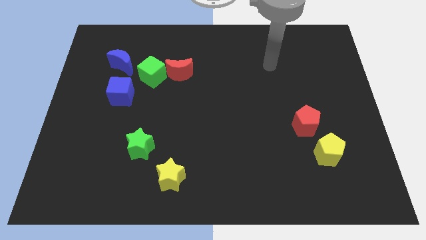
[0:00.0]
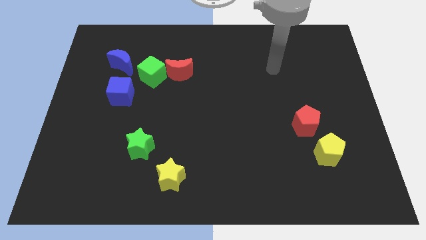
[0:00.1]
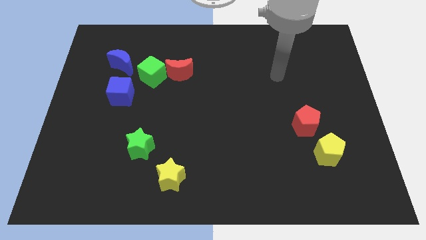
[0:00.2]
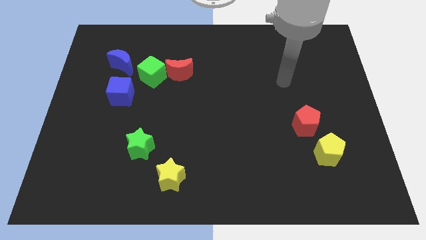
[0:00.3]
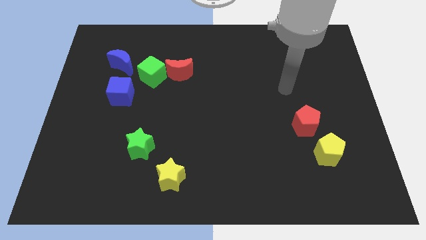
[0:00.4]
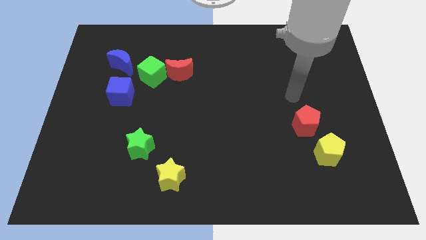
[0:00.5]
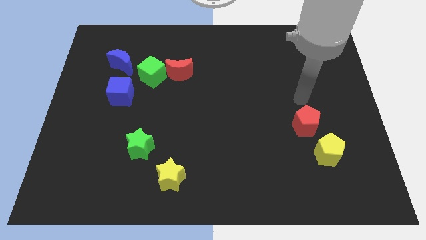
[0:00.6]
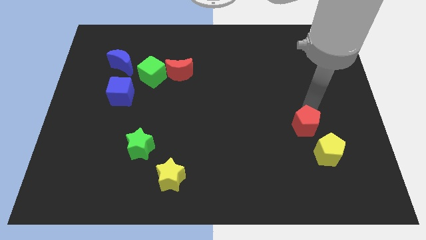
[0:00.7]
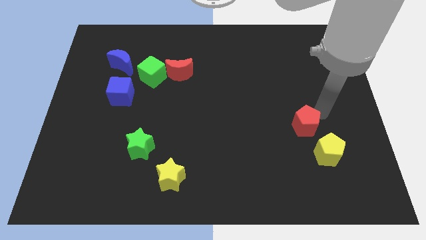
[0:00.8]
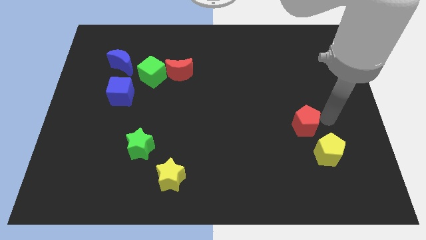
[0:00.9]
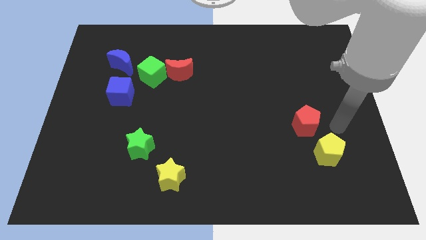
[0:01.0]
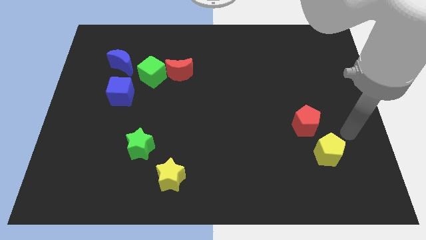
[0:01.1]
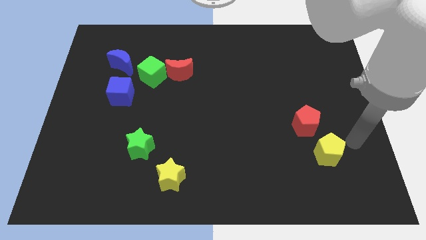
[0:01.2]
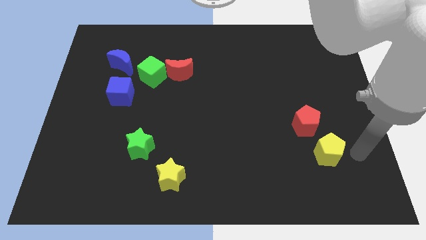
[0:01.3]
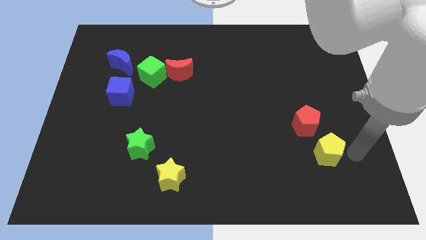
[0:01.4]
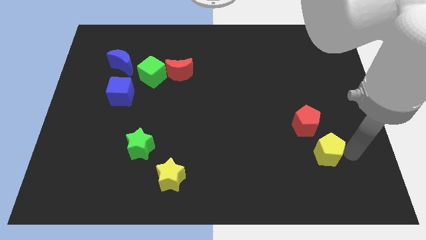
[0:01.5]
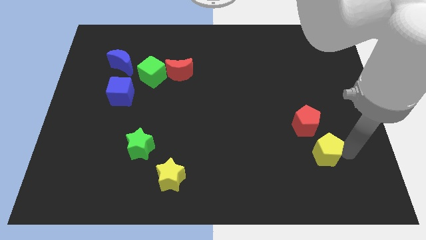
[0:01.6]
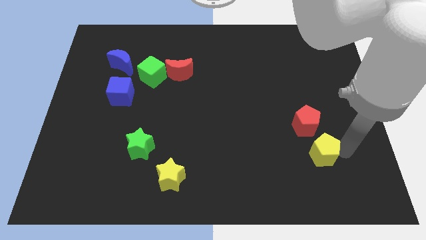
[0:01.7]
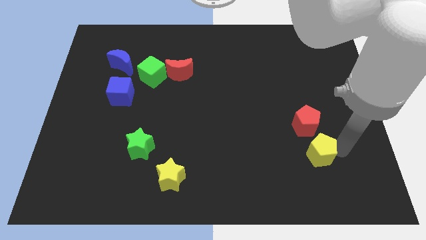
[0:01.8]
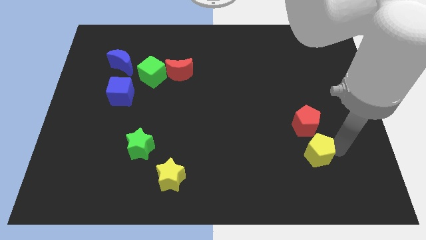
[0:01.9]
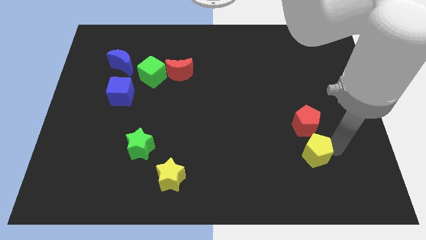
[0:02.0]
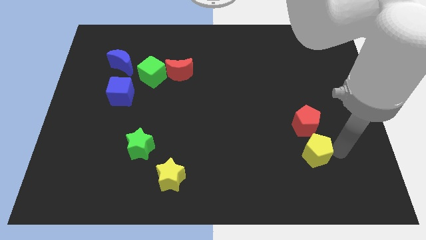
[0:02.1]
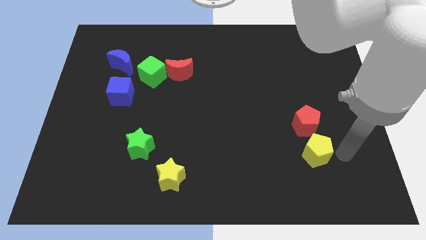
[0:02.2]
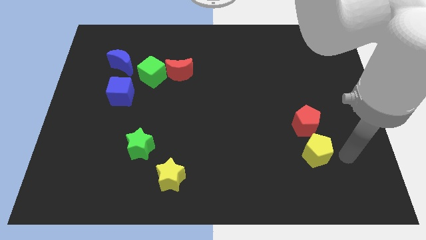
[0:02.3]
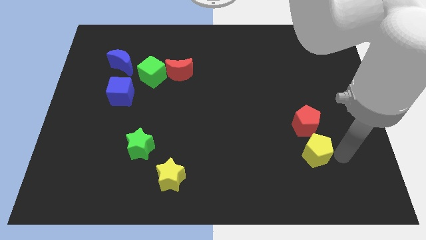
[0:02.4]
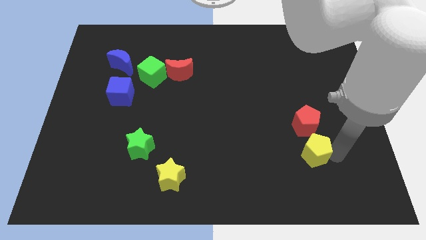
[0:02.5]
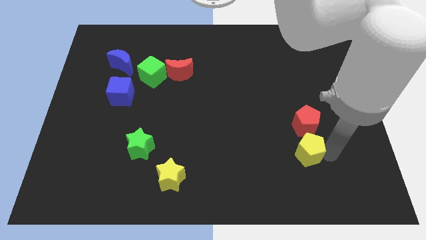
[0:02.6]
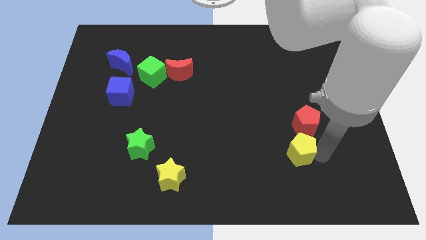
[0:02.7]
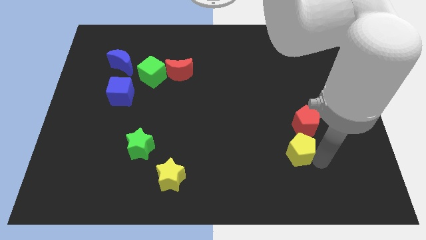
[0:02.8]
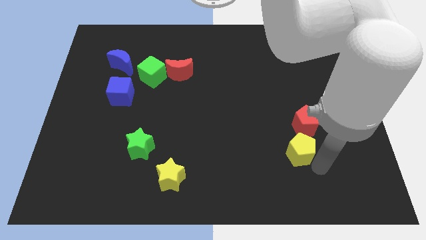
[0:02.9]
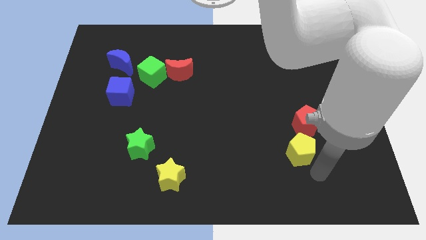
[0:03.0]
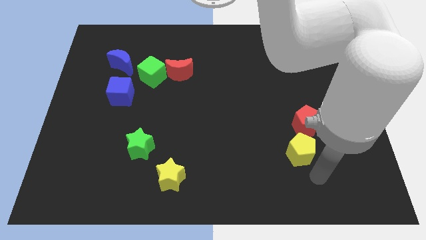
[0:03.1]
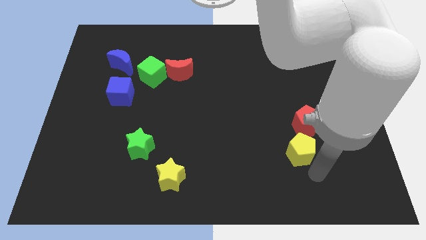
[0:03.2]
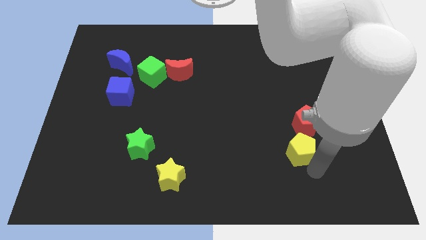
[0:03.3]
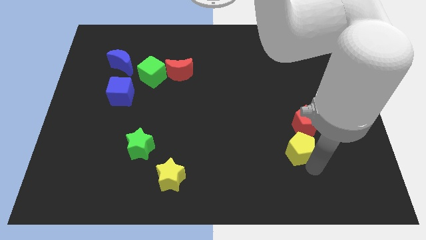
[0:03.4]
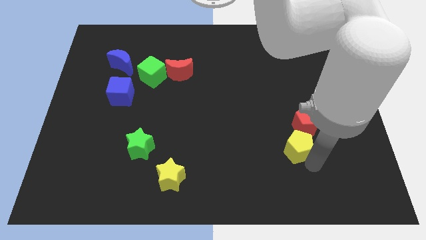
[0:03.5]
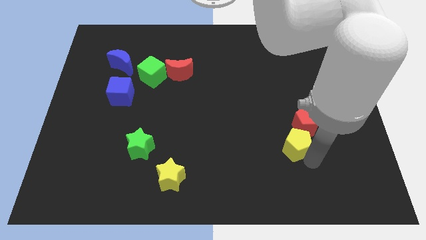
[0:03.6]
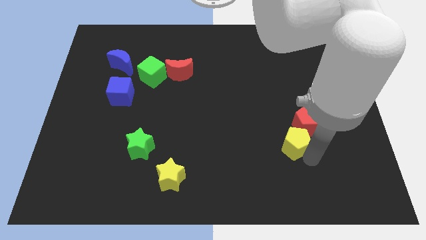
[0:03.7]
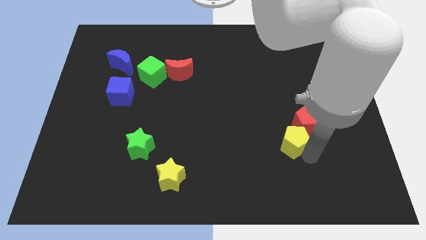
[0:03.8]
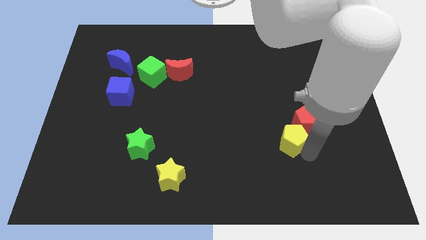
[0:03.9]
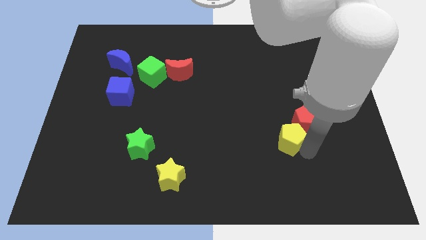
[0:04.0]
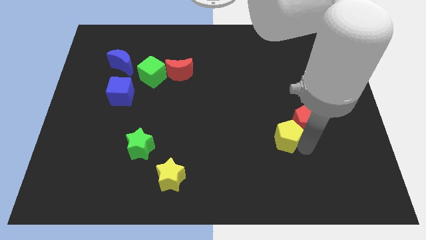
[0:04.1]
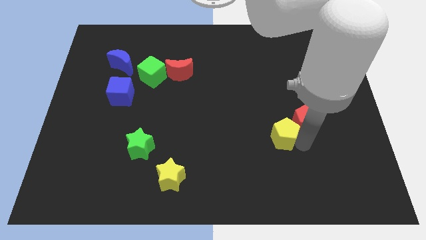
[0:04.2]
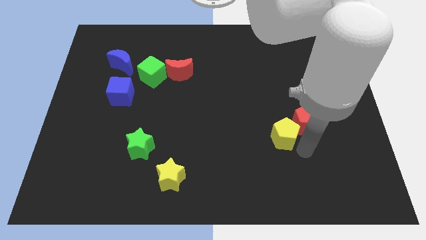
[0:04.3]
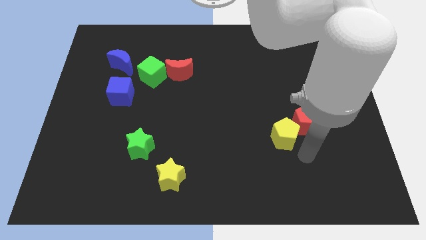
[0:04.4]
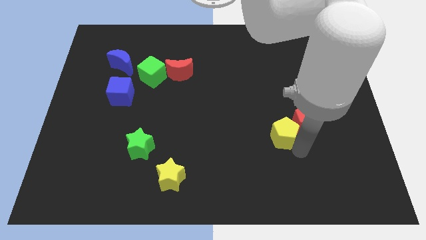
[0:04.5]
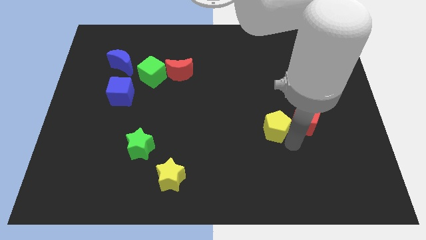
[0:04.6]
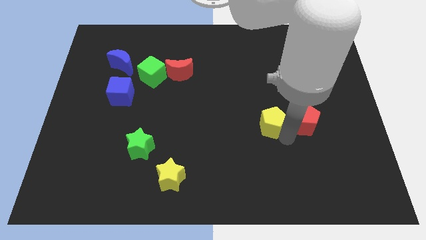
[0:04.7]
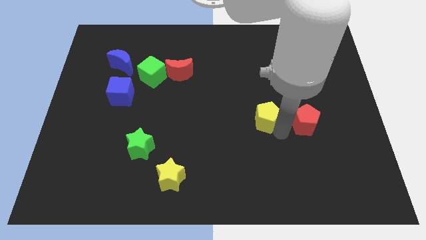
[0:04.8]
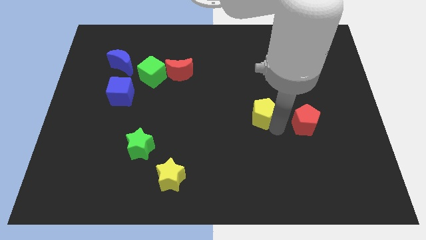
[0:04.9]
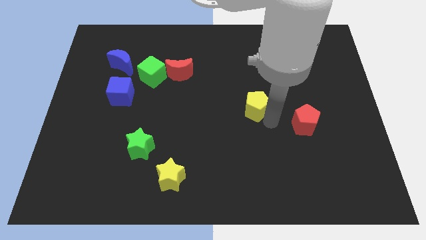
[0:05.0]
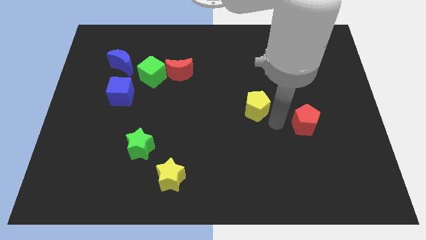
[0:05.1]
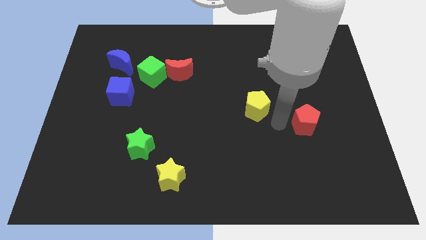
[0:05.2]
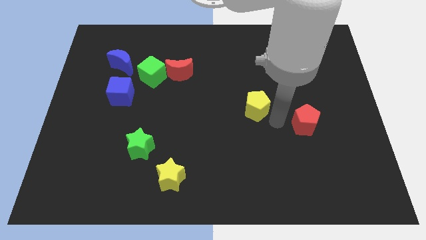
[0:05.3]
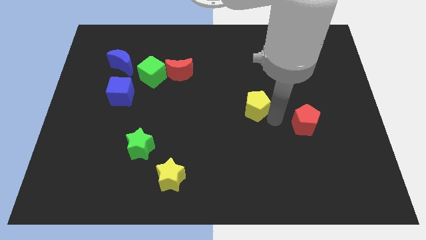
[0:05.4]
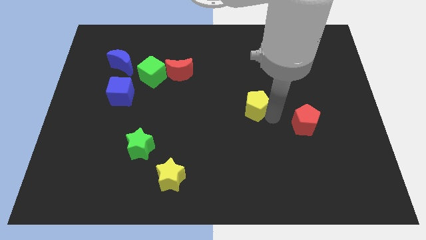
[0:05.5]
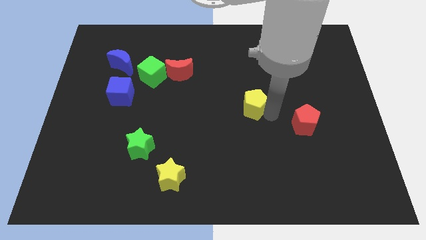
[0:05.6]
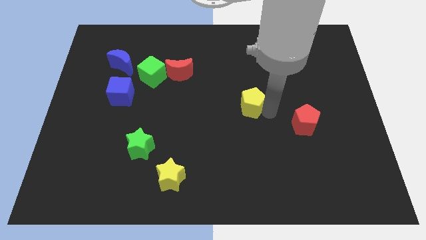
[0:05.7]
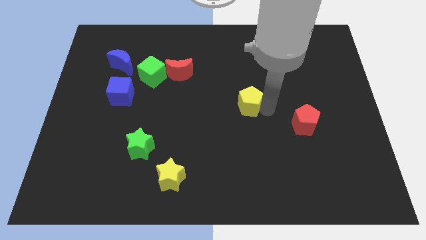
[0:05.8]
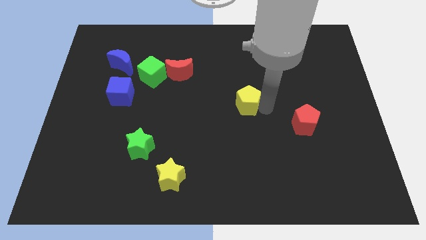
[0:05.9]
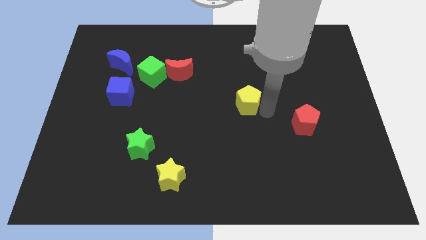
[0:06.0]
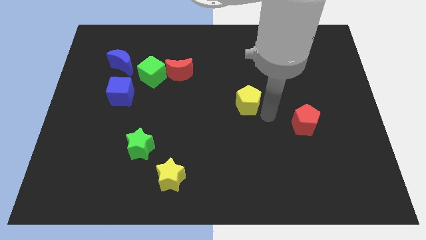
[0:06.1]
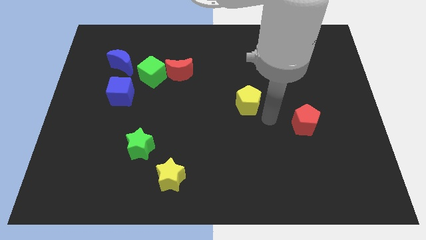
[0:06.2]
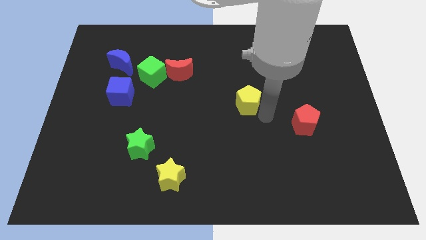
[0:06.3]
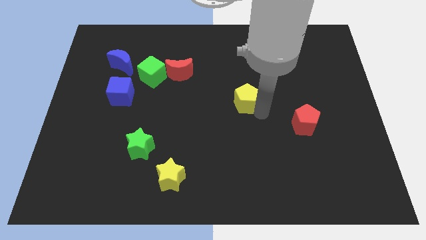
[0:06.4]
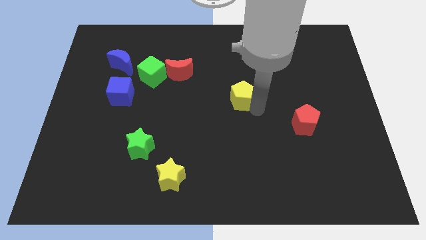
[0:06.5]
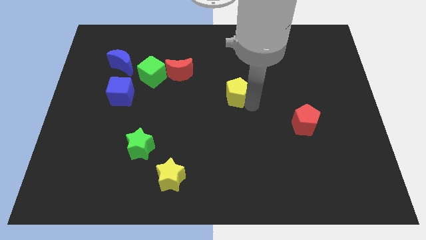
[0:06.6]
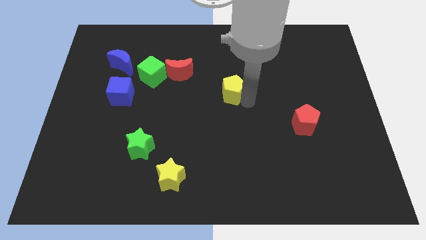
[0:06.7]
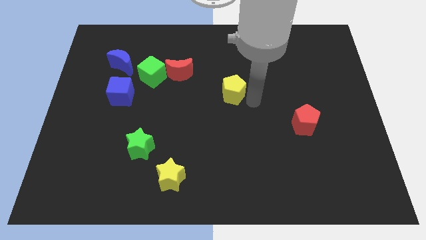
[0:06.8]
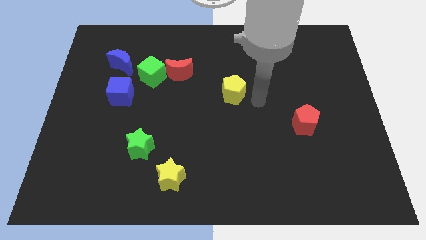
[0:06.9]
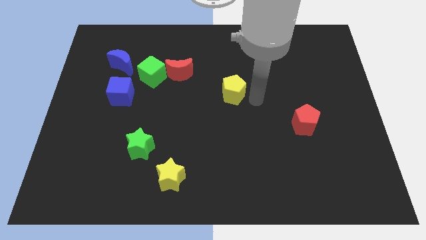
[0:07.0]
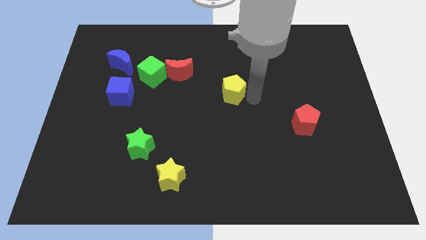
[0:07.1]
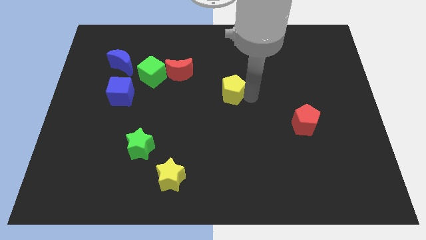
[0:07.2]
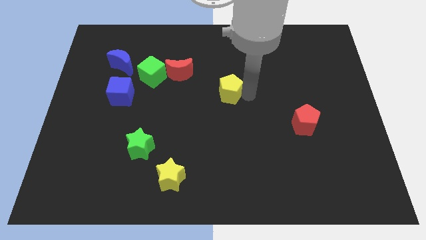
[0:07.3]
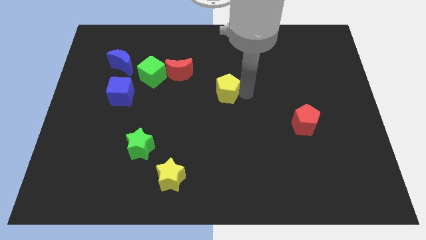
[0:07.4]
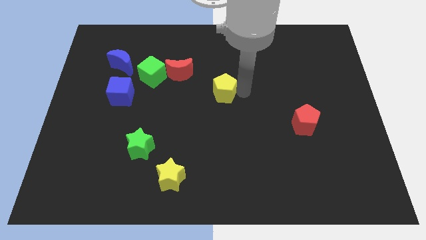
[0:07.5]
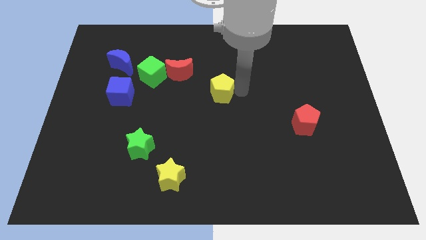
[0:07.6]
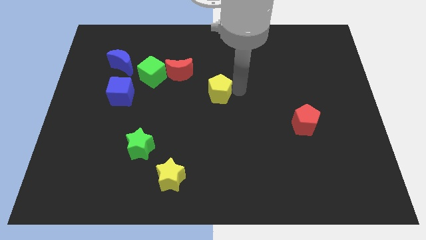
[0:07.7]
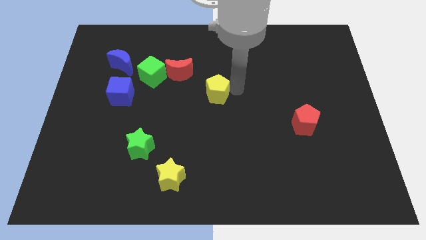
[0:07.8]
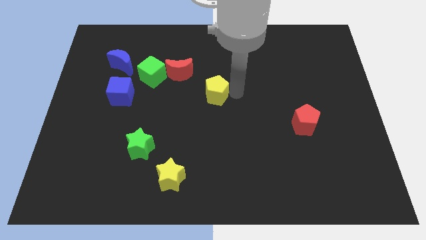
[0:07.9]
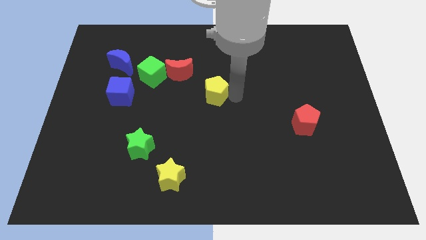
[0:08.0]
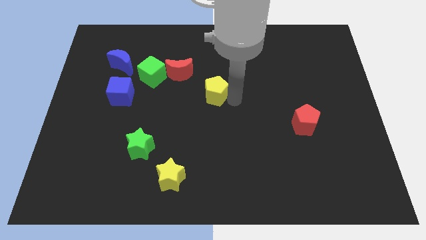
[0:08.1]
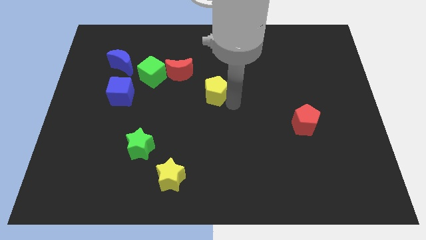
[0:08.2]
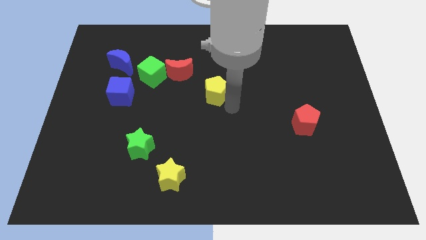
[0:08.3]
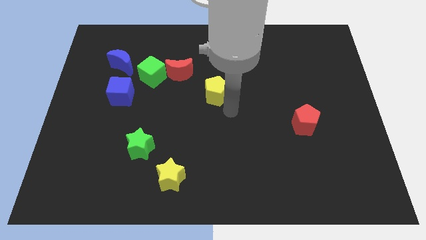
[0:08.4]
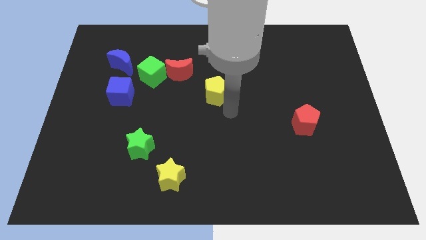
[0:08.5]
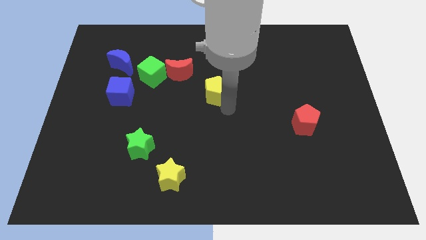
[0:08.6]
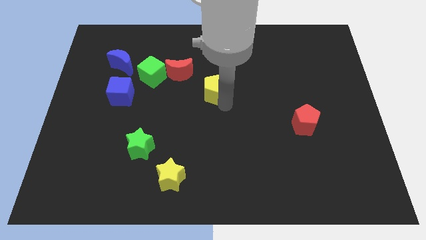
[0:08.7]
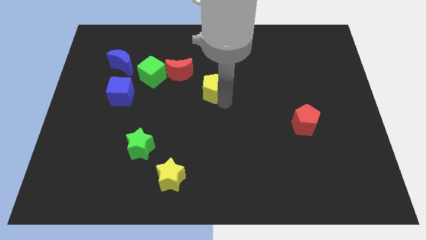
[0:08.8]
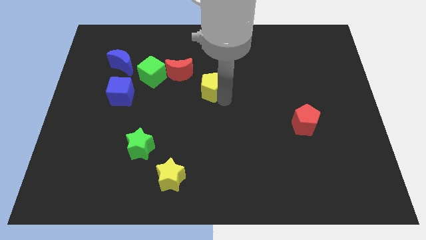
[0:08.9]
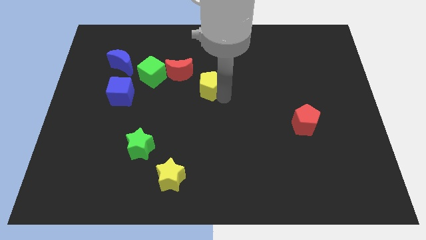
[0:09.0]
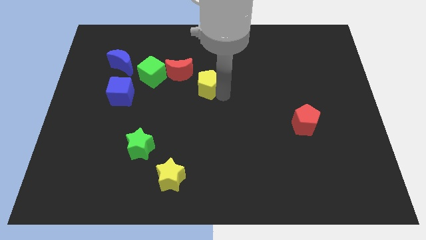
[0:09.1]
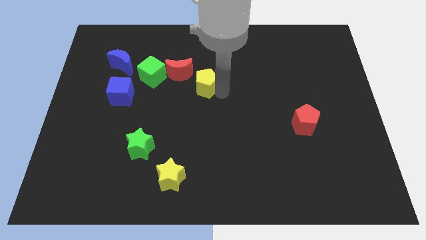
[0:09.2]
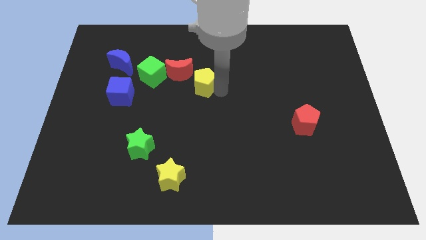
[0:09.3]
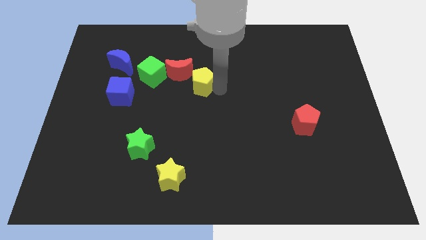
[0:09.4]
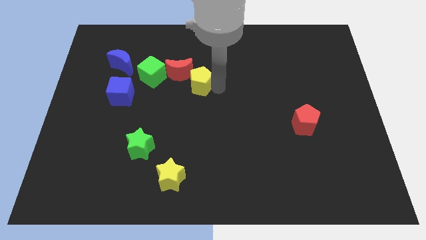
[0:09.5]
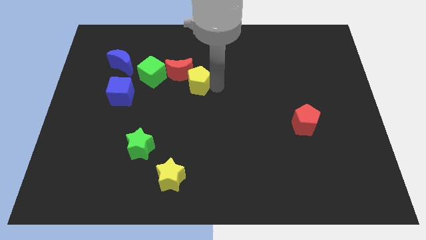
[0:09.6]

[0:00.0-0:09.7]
push the yellow pentagon to the red moon
